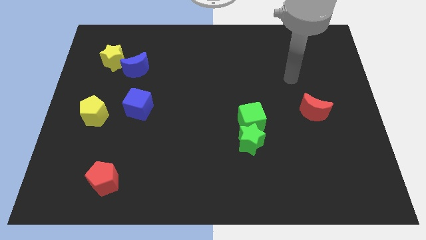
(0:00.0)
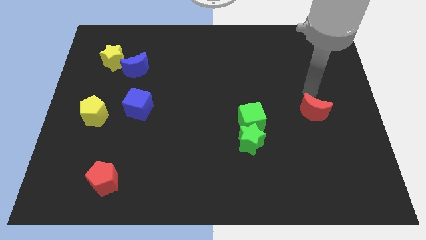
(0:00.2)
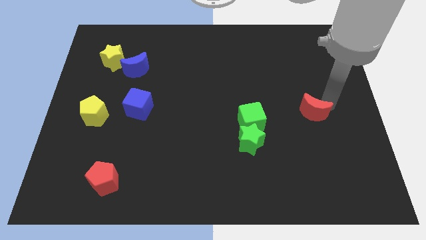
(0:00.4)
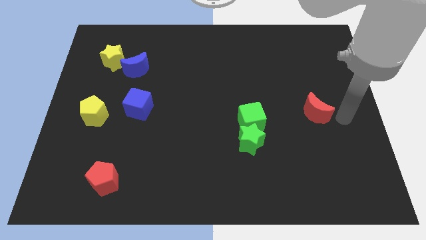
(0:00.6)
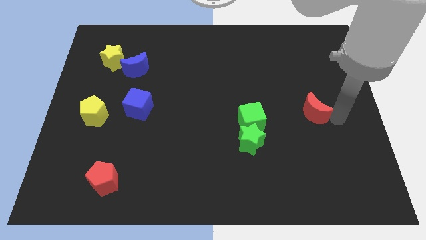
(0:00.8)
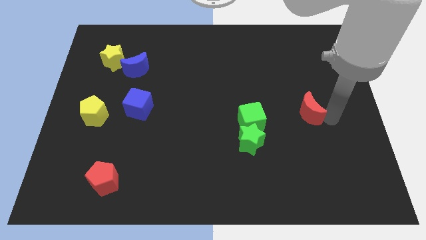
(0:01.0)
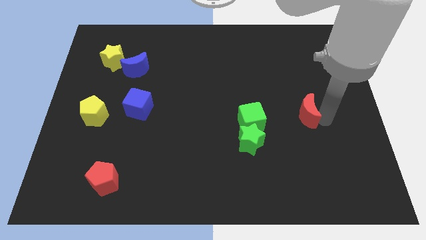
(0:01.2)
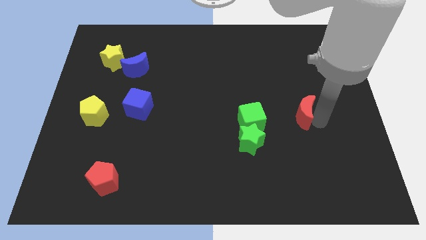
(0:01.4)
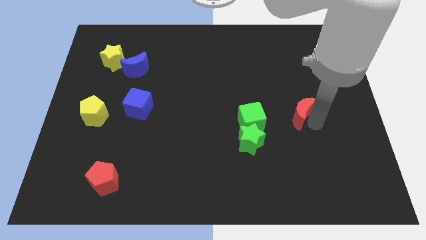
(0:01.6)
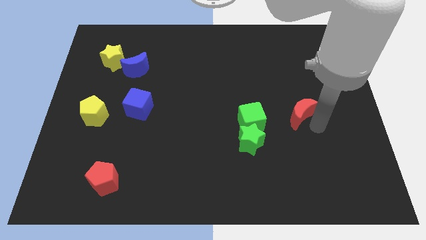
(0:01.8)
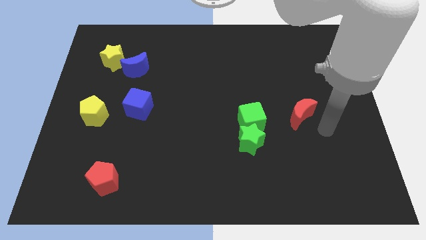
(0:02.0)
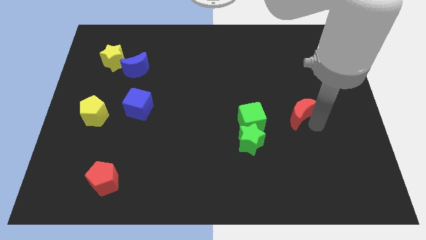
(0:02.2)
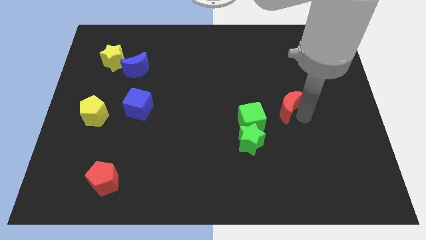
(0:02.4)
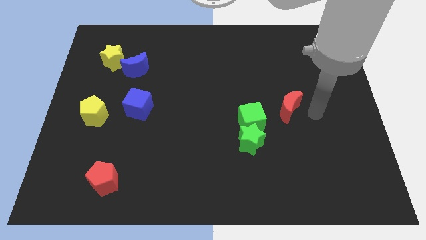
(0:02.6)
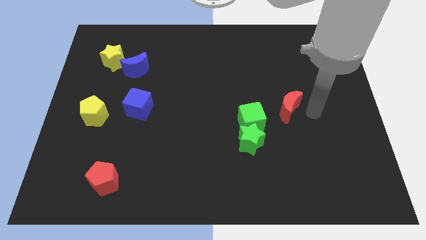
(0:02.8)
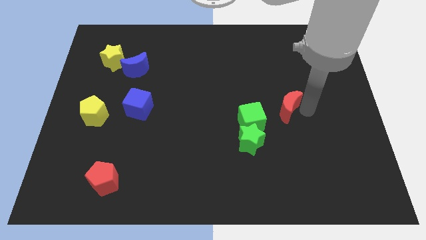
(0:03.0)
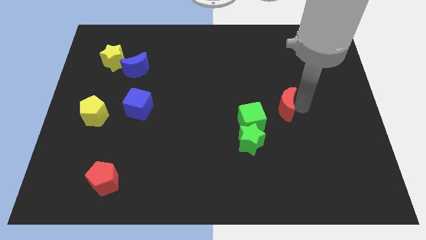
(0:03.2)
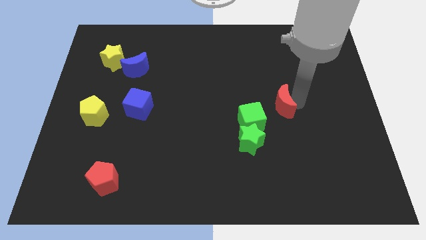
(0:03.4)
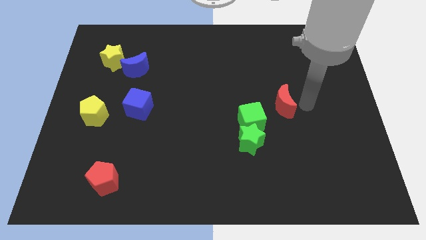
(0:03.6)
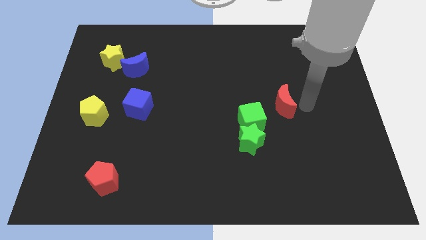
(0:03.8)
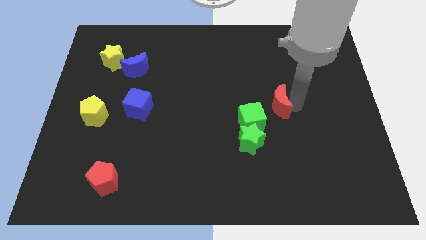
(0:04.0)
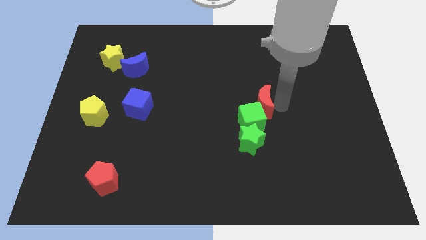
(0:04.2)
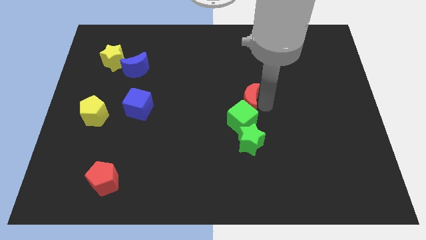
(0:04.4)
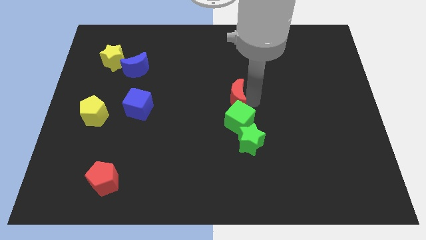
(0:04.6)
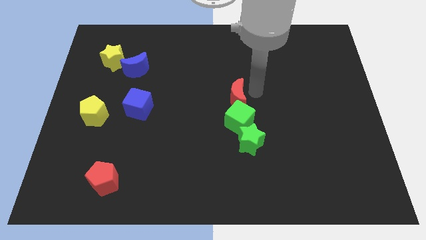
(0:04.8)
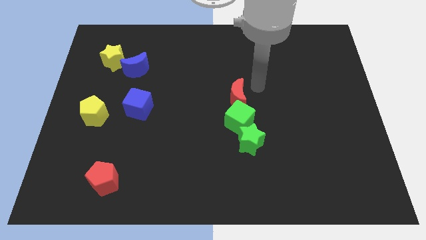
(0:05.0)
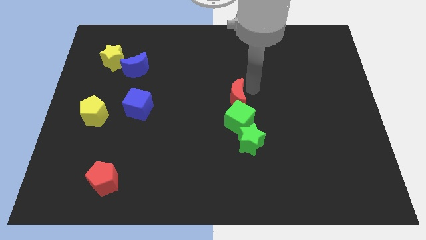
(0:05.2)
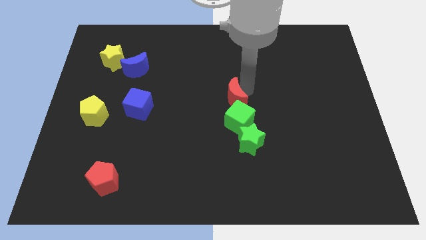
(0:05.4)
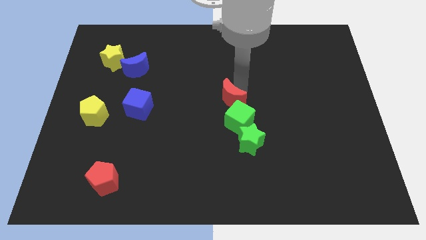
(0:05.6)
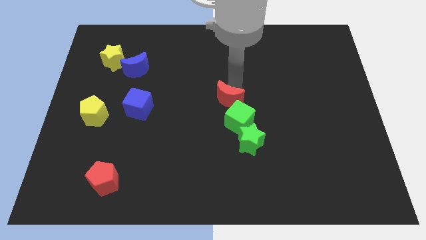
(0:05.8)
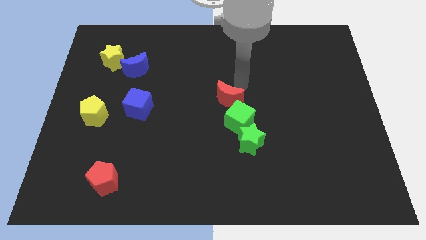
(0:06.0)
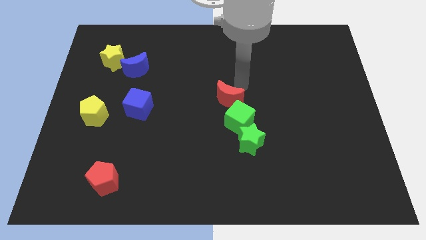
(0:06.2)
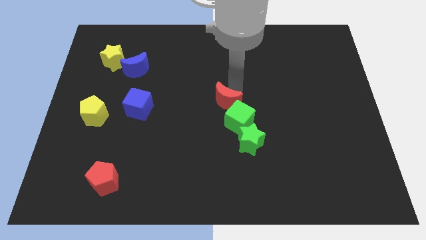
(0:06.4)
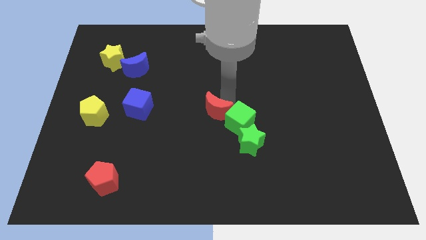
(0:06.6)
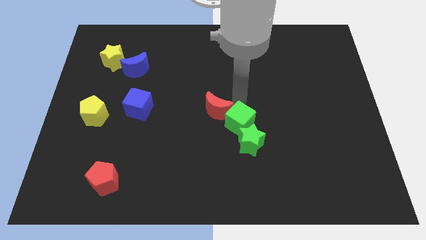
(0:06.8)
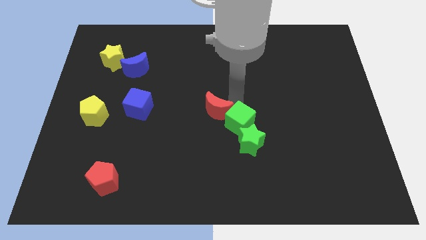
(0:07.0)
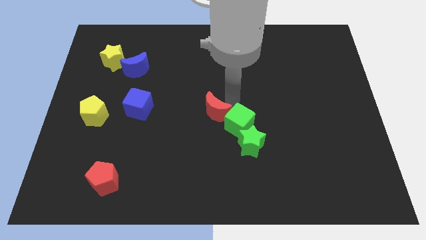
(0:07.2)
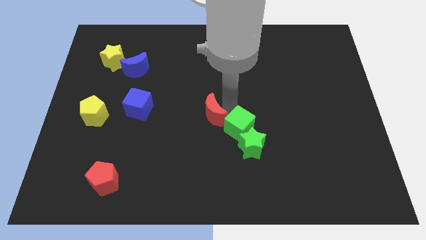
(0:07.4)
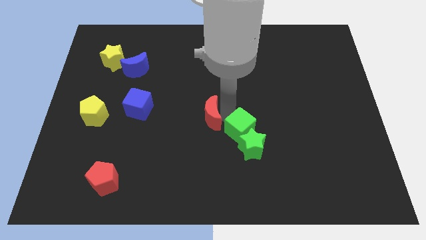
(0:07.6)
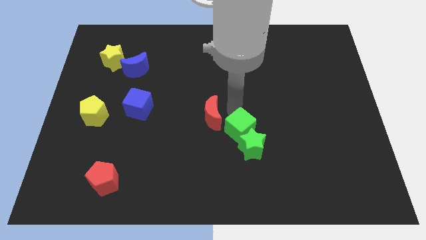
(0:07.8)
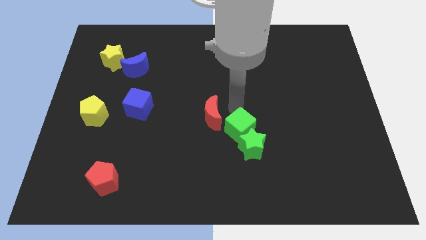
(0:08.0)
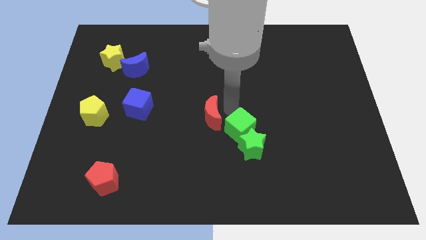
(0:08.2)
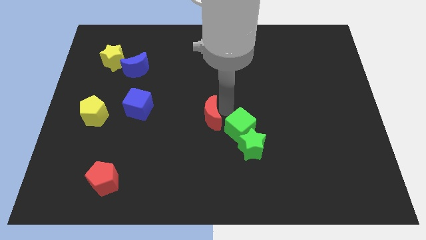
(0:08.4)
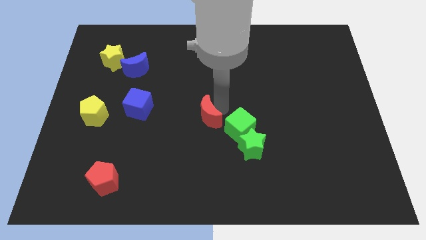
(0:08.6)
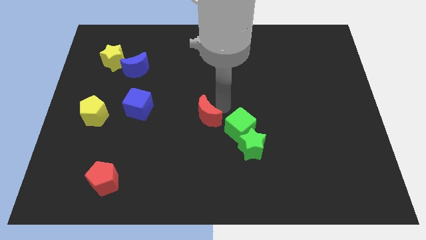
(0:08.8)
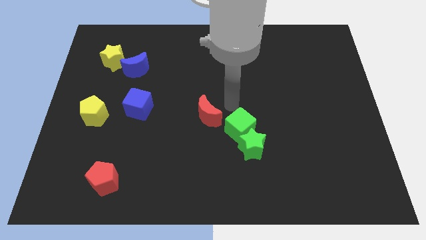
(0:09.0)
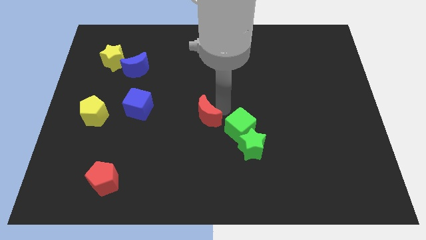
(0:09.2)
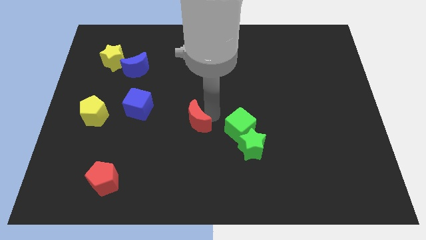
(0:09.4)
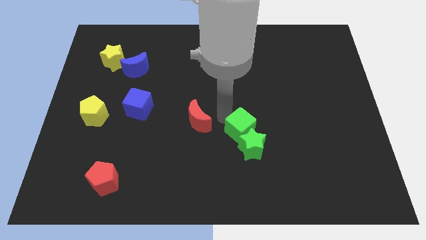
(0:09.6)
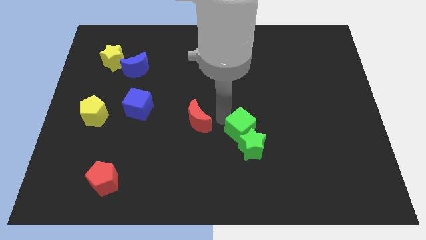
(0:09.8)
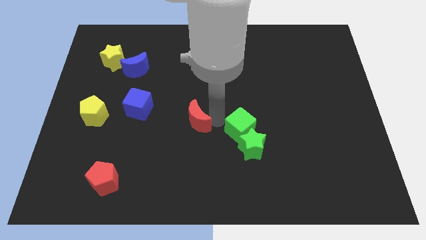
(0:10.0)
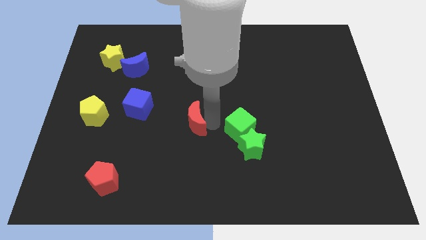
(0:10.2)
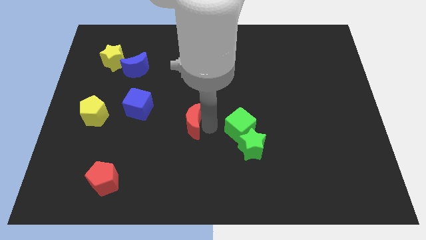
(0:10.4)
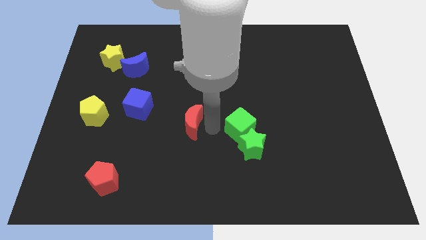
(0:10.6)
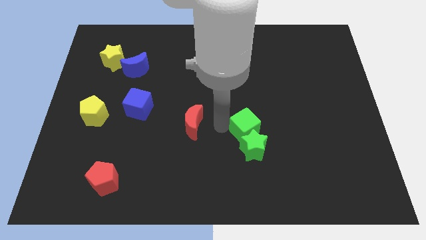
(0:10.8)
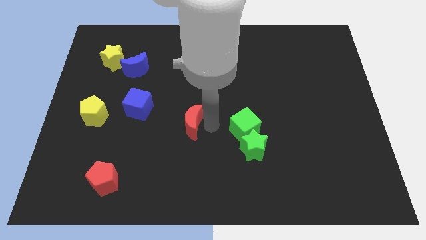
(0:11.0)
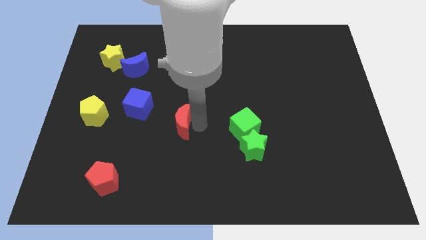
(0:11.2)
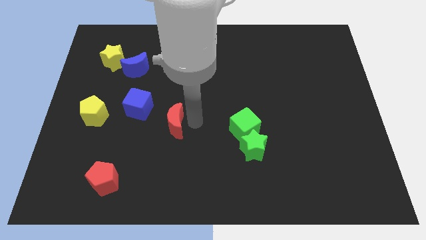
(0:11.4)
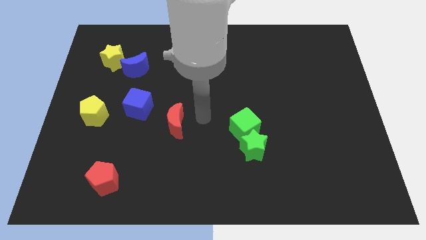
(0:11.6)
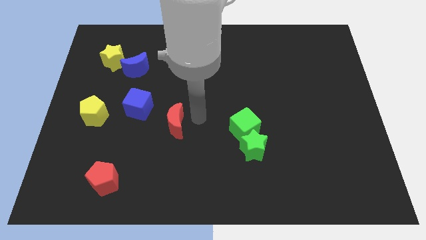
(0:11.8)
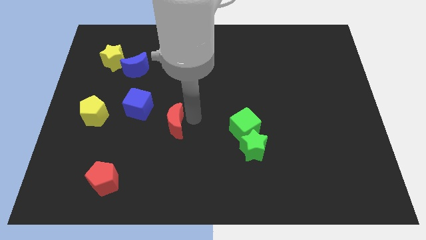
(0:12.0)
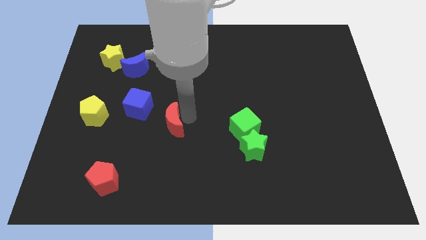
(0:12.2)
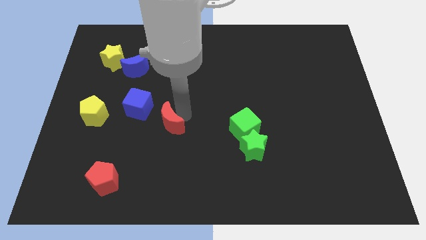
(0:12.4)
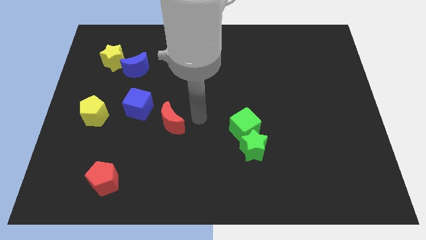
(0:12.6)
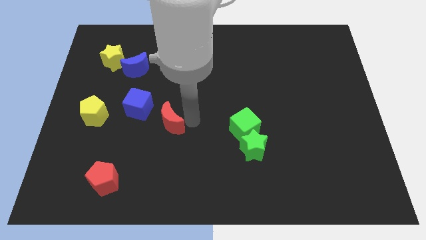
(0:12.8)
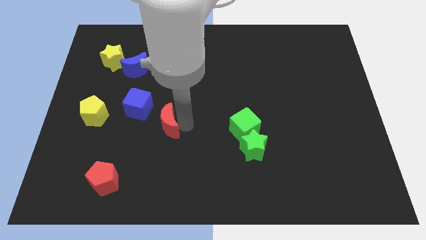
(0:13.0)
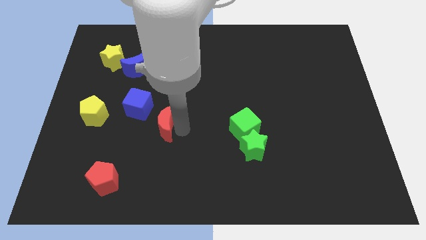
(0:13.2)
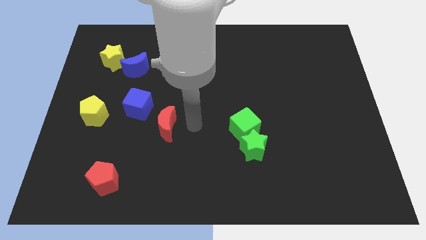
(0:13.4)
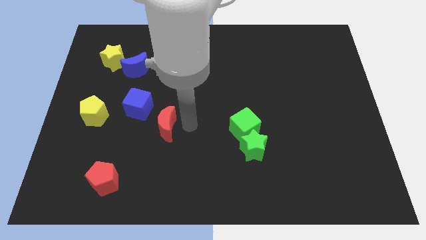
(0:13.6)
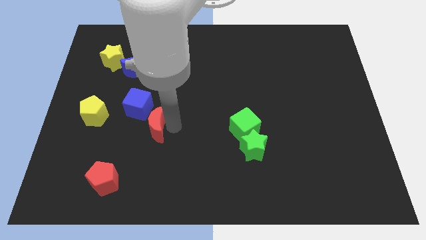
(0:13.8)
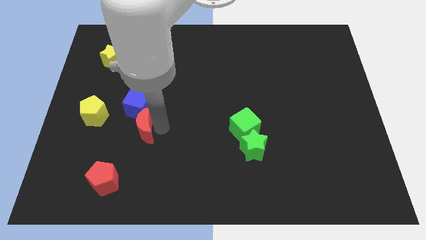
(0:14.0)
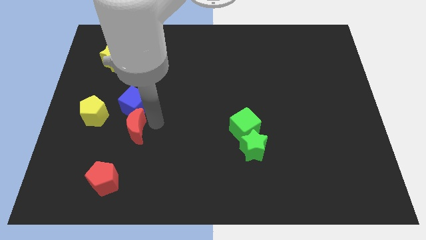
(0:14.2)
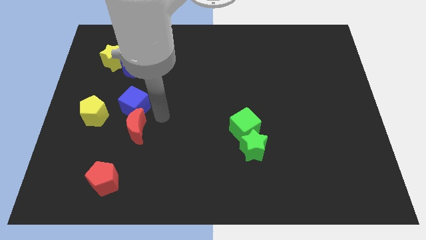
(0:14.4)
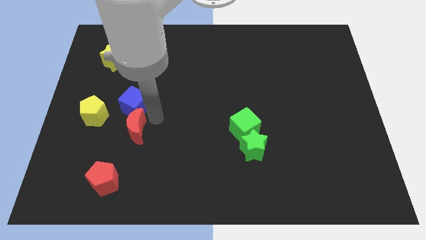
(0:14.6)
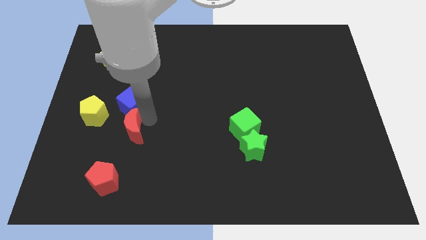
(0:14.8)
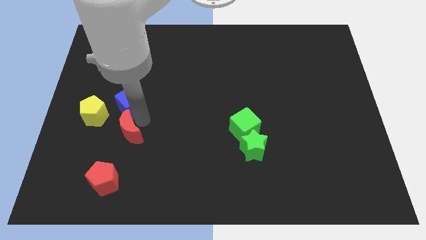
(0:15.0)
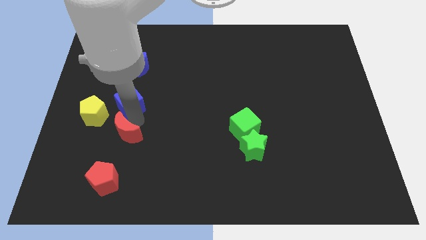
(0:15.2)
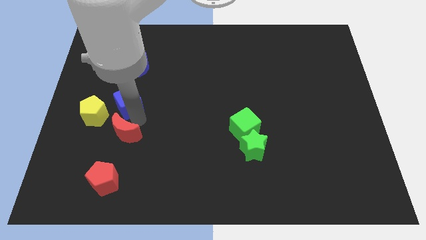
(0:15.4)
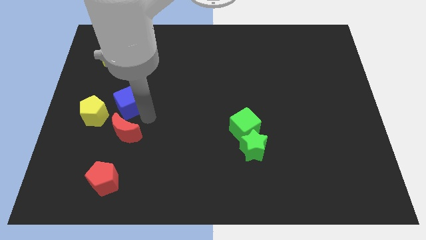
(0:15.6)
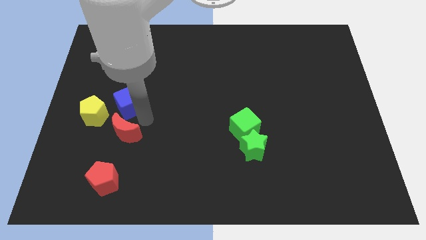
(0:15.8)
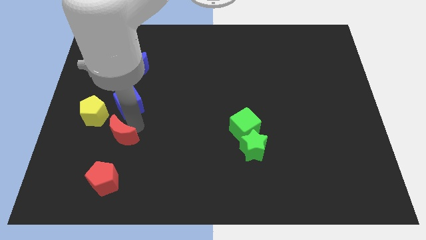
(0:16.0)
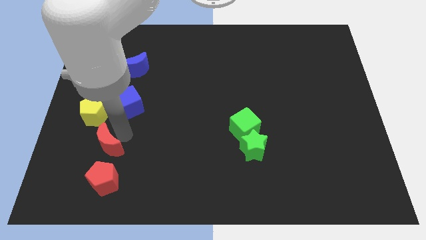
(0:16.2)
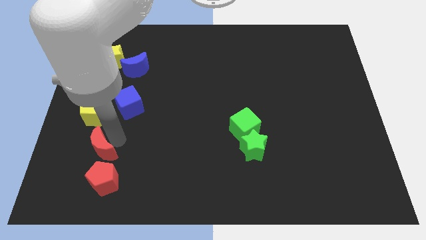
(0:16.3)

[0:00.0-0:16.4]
push the red moon diagonally up and to the left of the red pentagon
